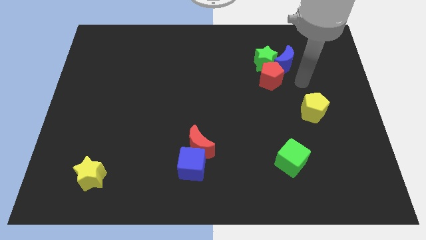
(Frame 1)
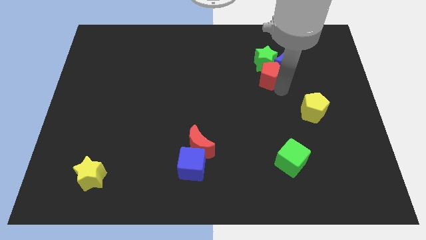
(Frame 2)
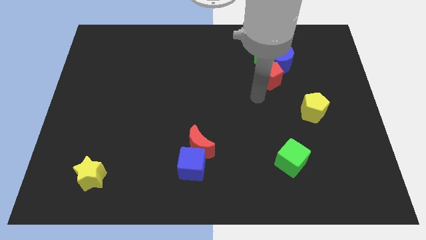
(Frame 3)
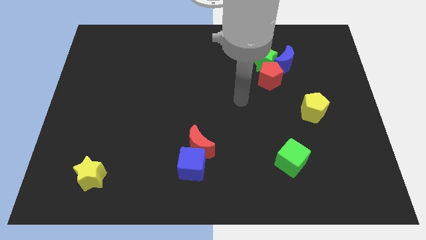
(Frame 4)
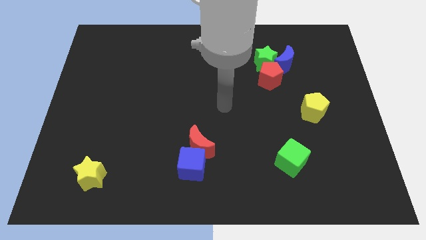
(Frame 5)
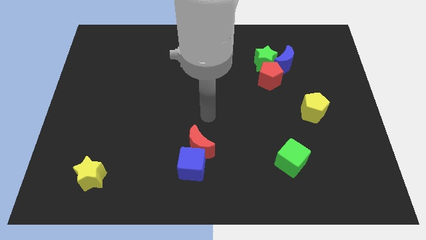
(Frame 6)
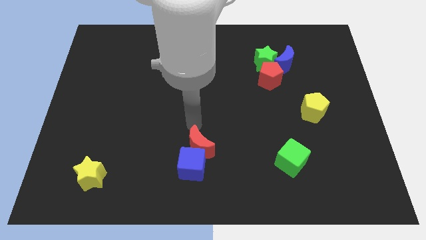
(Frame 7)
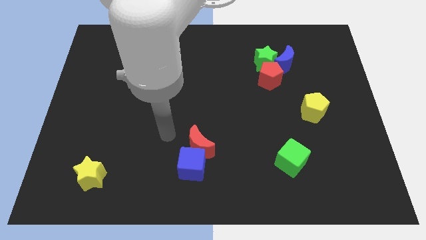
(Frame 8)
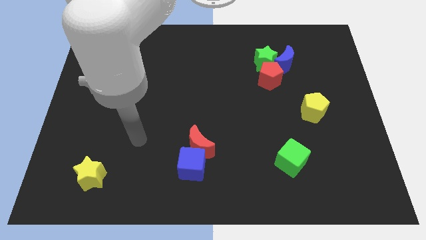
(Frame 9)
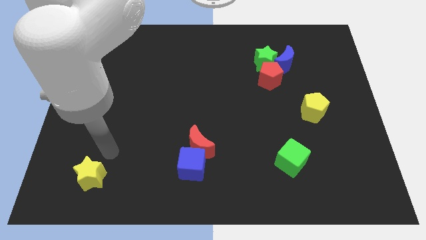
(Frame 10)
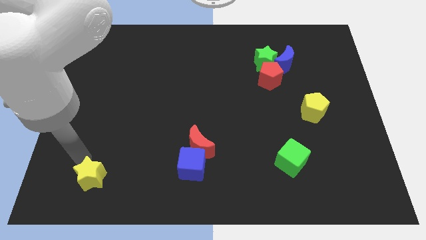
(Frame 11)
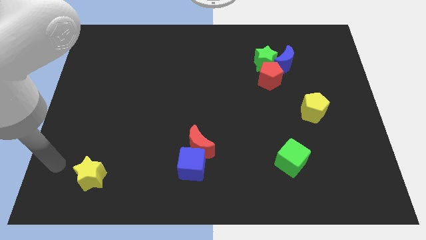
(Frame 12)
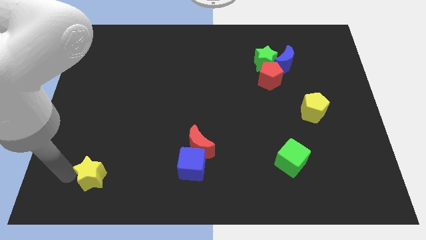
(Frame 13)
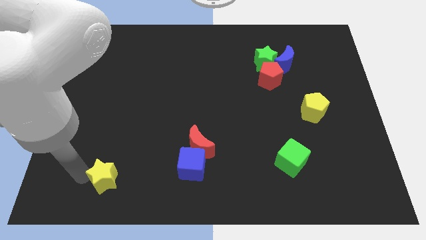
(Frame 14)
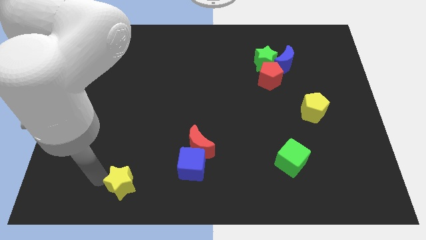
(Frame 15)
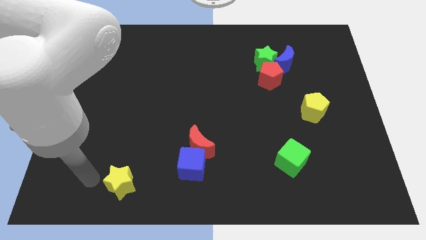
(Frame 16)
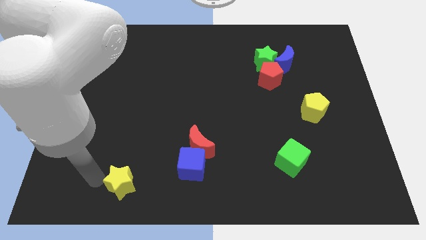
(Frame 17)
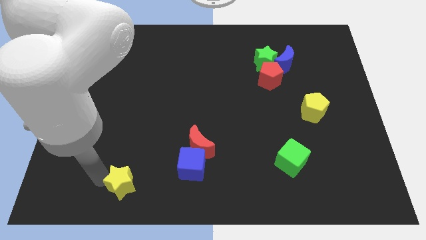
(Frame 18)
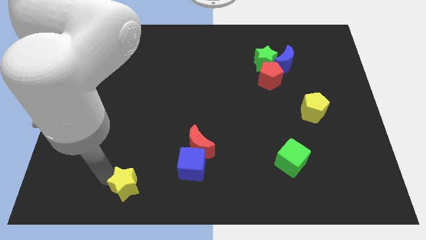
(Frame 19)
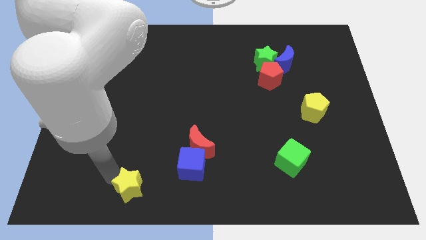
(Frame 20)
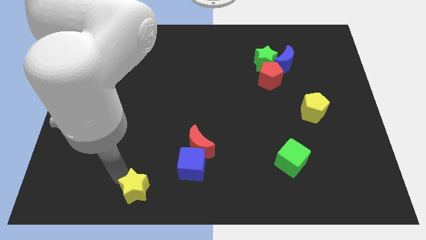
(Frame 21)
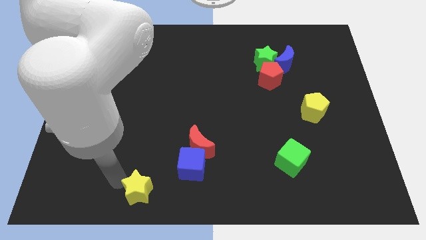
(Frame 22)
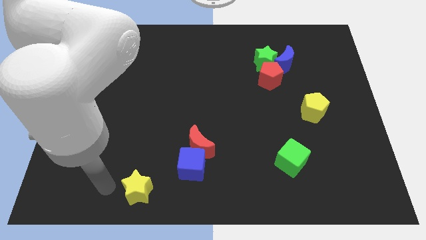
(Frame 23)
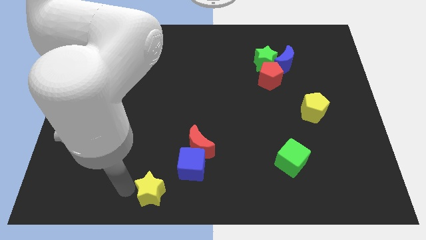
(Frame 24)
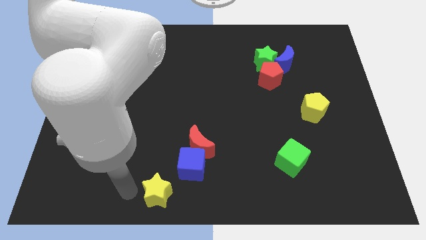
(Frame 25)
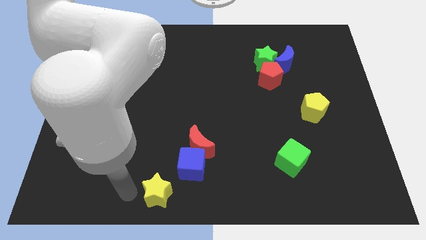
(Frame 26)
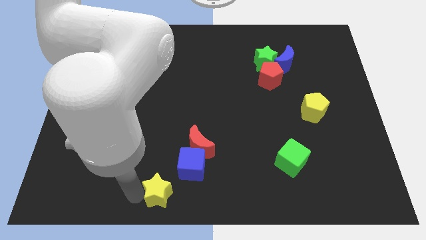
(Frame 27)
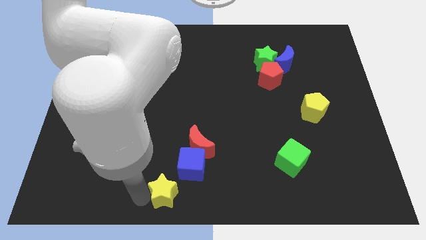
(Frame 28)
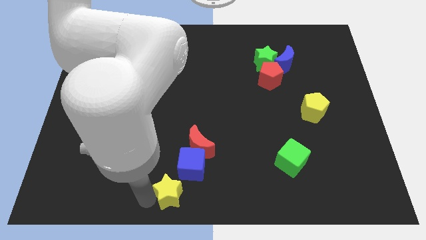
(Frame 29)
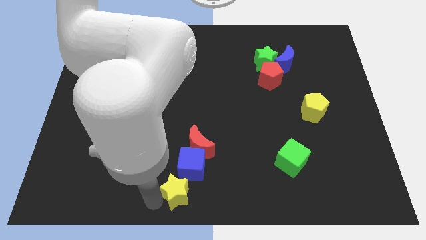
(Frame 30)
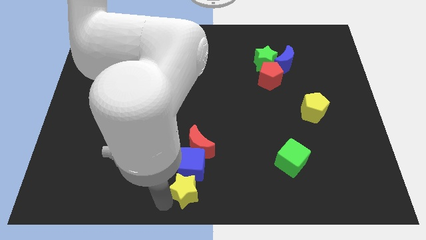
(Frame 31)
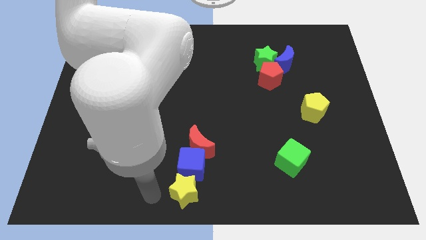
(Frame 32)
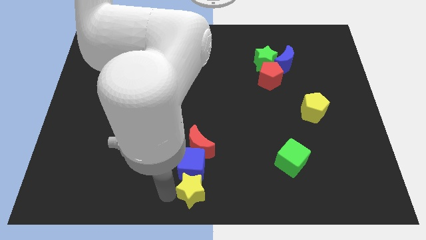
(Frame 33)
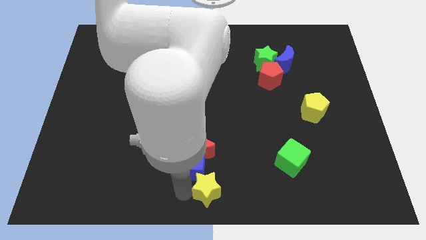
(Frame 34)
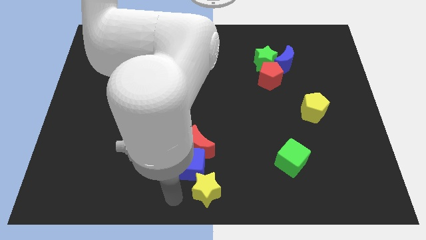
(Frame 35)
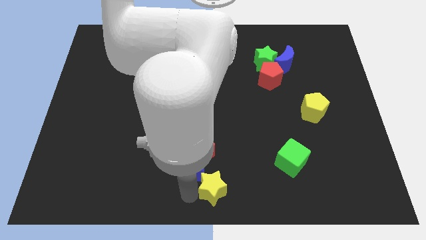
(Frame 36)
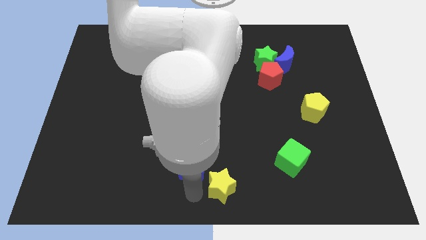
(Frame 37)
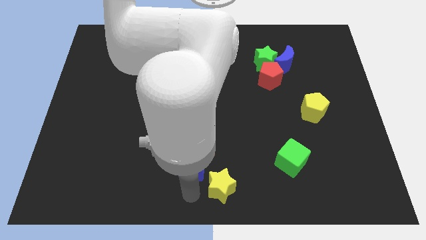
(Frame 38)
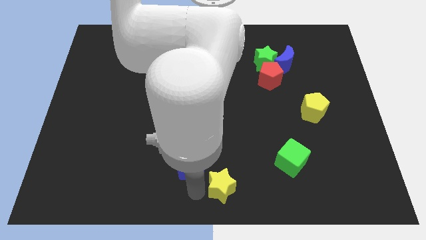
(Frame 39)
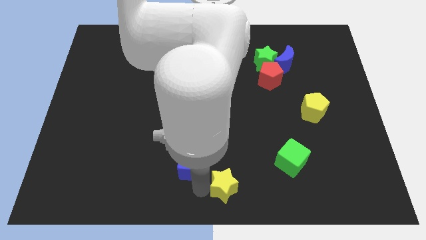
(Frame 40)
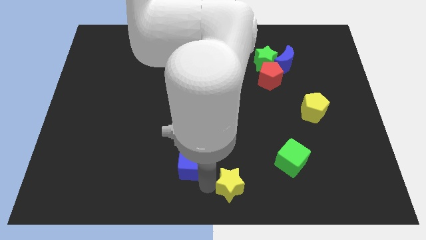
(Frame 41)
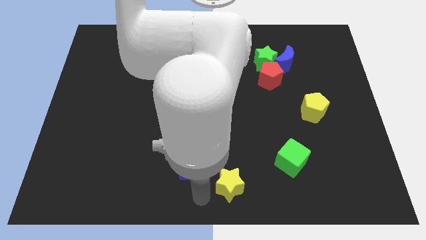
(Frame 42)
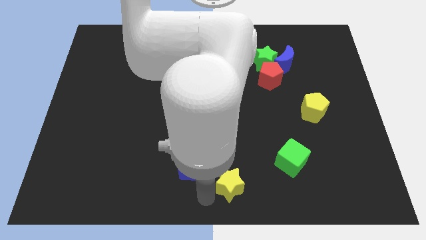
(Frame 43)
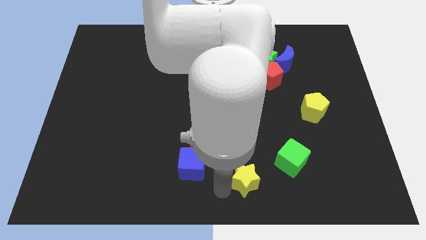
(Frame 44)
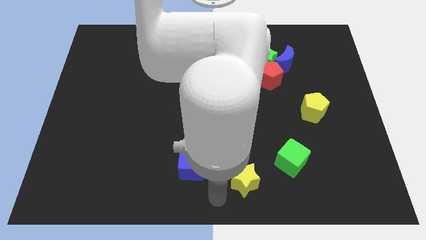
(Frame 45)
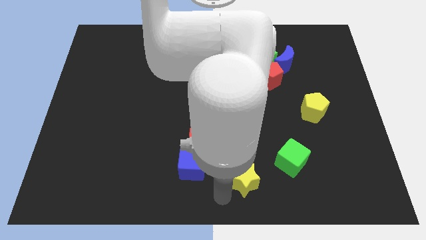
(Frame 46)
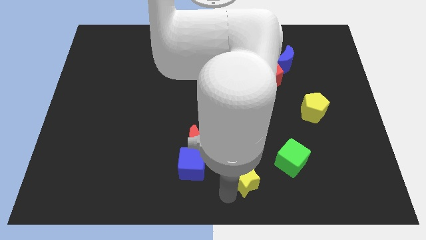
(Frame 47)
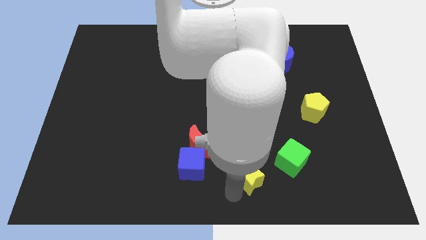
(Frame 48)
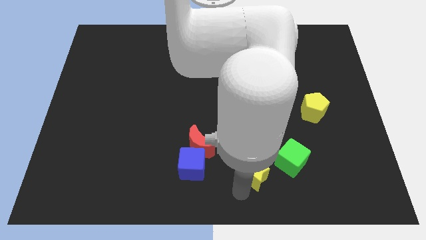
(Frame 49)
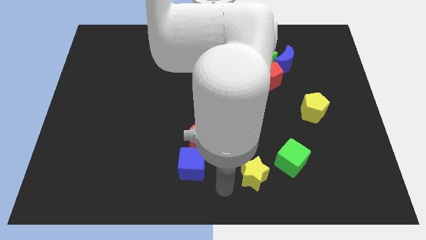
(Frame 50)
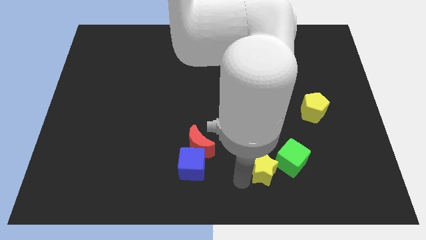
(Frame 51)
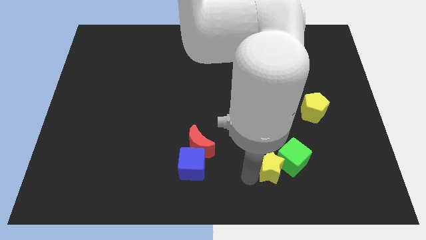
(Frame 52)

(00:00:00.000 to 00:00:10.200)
push the yellow star to the green cube

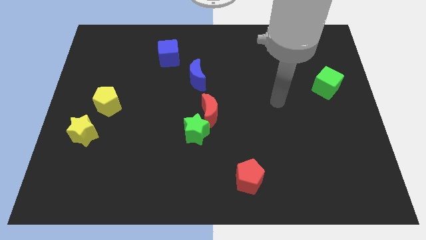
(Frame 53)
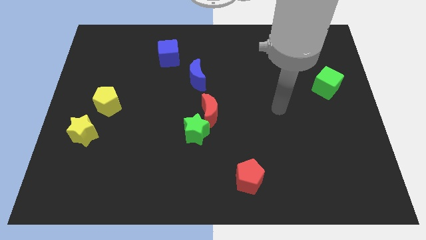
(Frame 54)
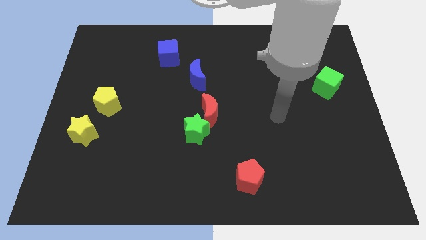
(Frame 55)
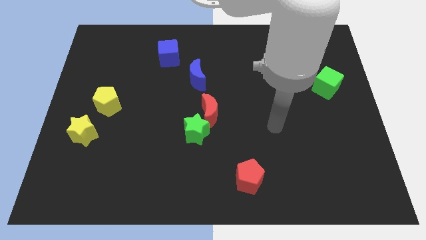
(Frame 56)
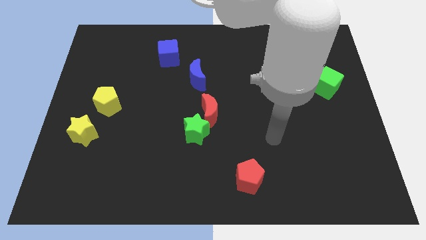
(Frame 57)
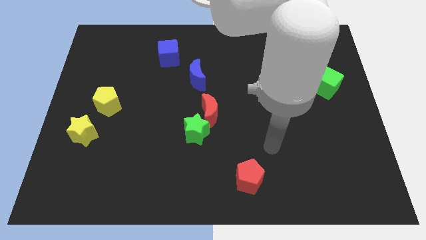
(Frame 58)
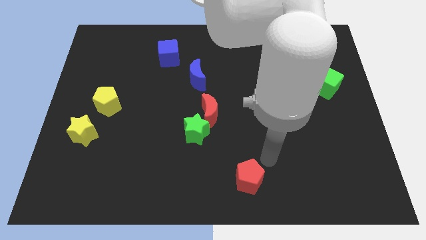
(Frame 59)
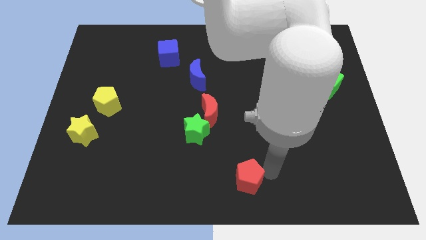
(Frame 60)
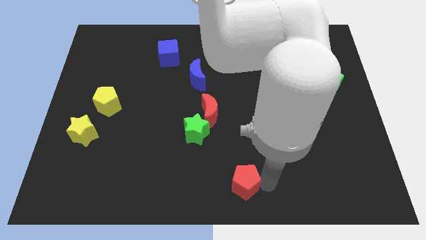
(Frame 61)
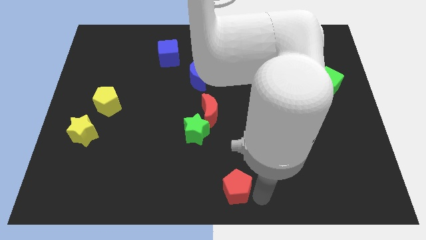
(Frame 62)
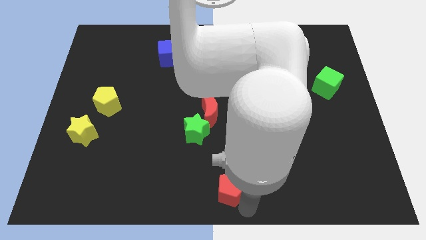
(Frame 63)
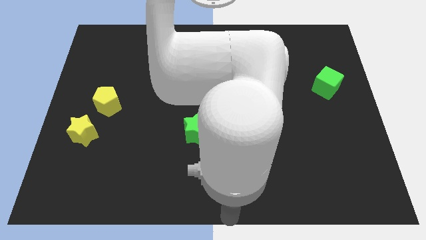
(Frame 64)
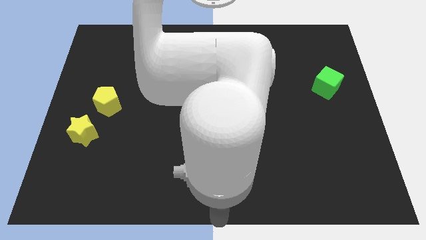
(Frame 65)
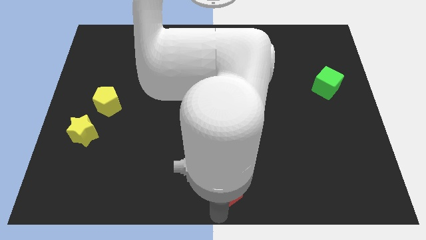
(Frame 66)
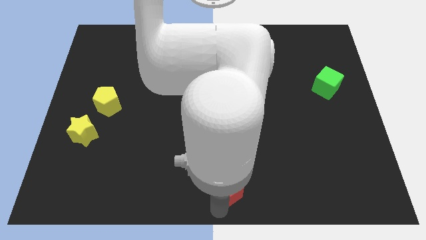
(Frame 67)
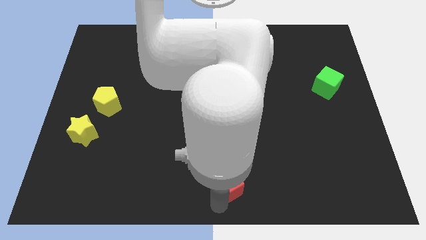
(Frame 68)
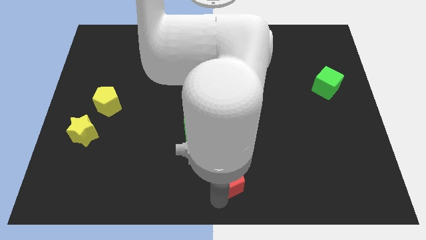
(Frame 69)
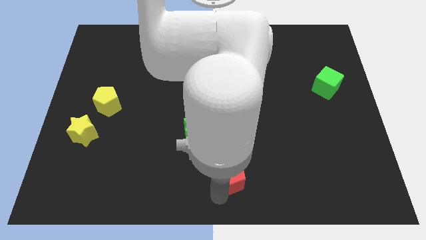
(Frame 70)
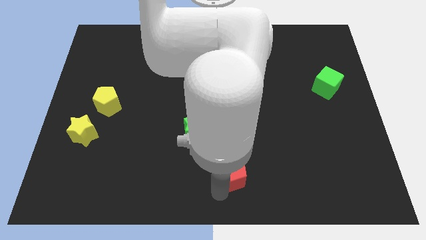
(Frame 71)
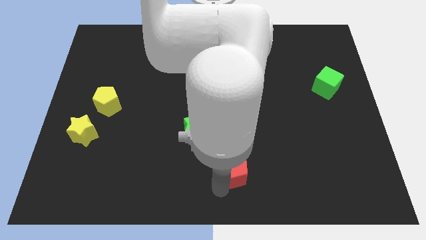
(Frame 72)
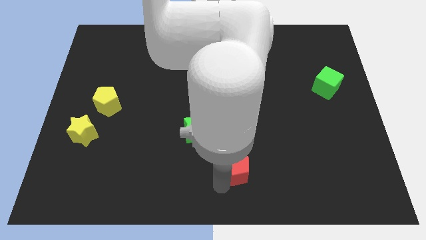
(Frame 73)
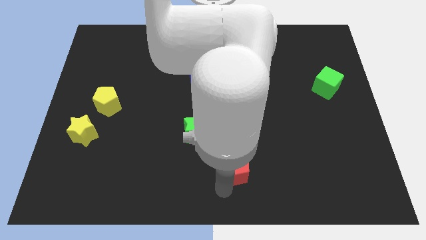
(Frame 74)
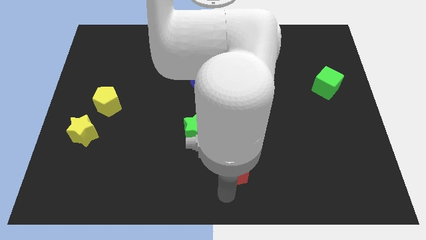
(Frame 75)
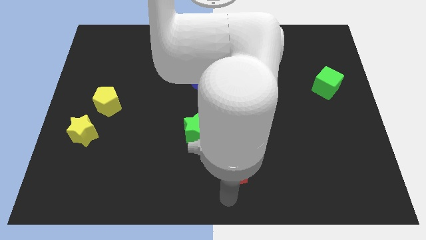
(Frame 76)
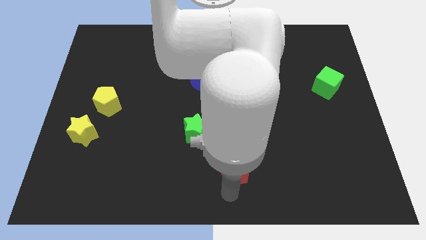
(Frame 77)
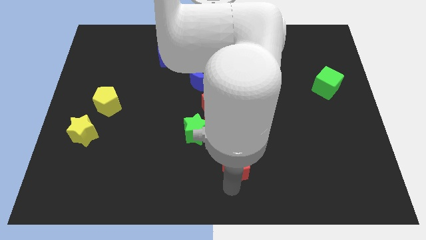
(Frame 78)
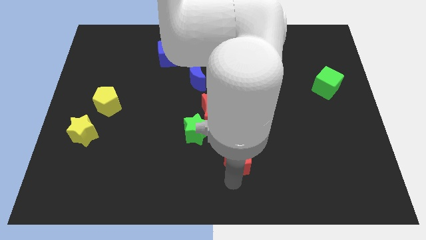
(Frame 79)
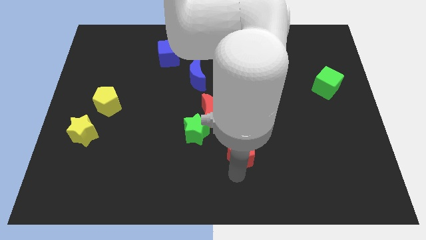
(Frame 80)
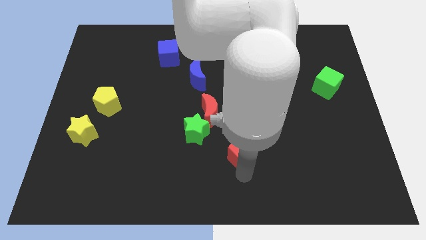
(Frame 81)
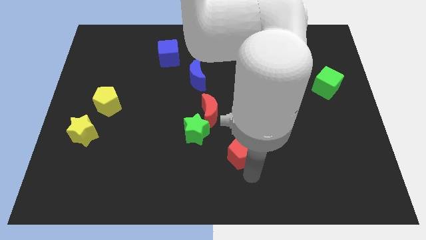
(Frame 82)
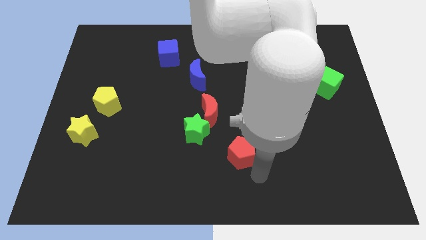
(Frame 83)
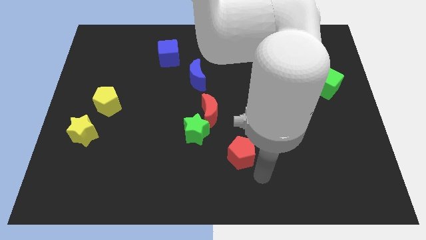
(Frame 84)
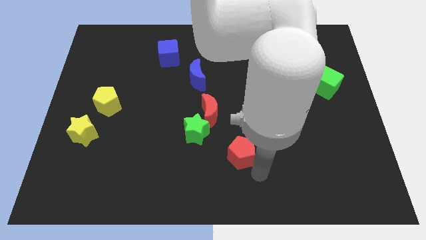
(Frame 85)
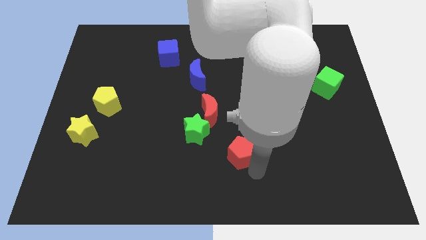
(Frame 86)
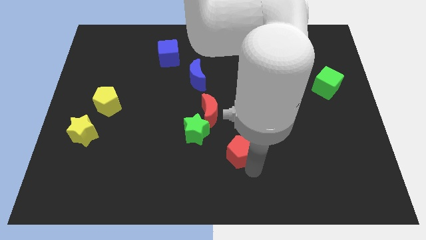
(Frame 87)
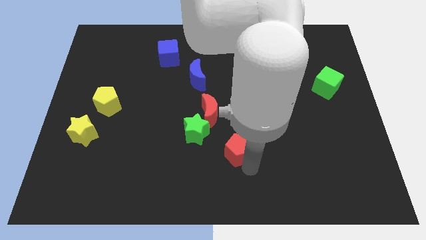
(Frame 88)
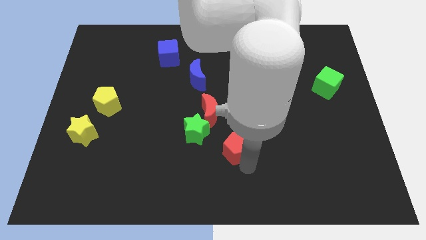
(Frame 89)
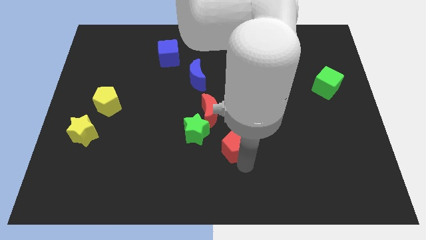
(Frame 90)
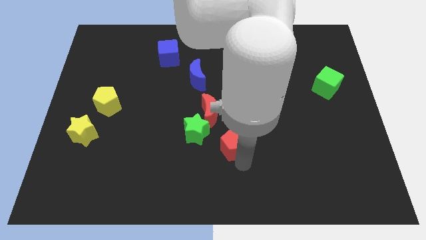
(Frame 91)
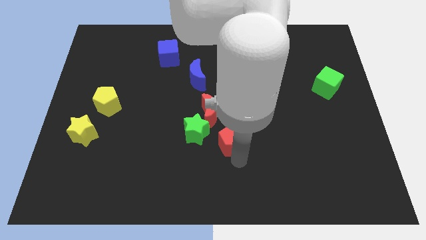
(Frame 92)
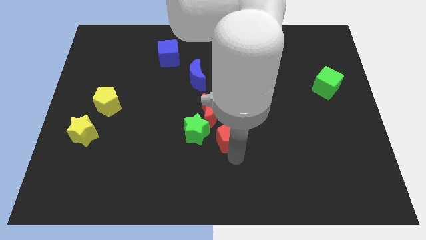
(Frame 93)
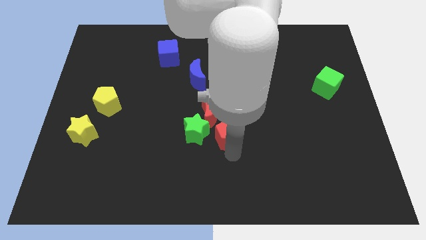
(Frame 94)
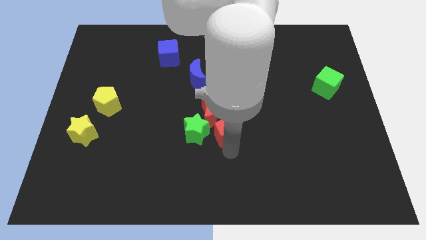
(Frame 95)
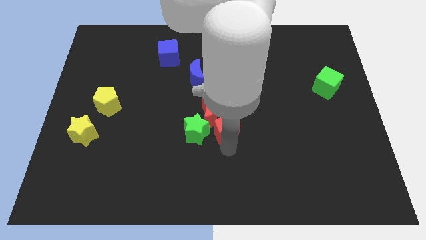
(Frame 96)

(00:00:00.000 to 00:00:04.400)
slide the red pentagon towards the red moon
